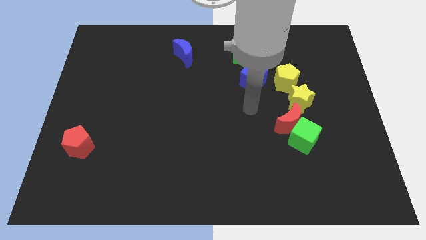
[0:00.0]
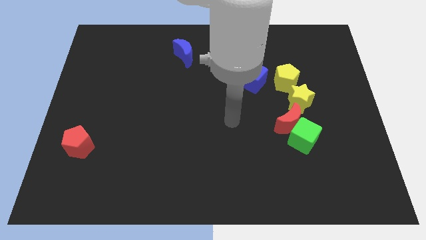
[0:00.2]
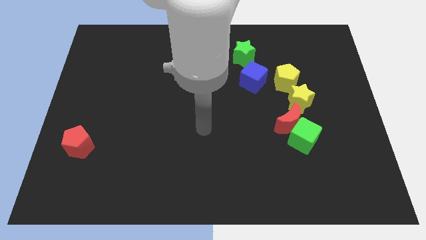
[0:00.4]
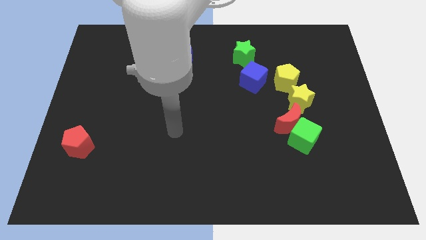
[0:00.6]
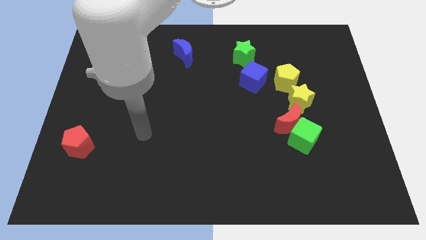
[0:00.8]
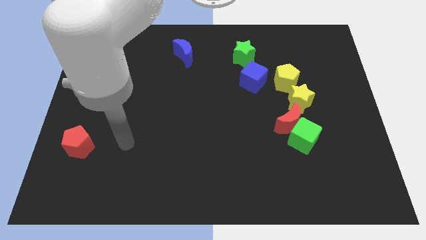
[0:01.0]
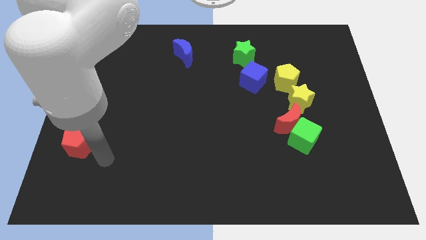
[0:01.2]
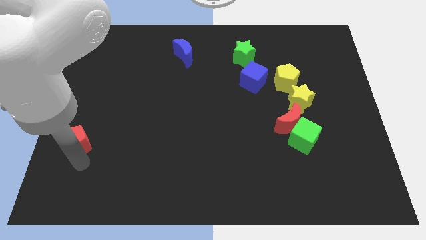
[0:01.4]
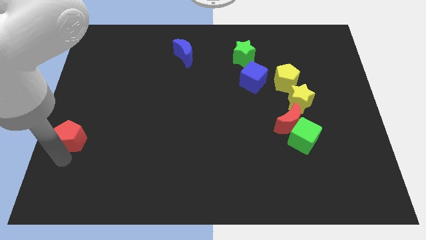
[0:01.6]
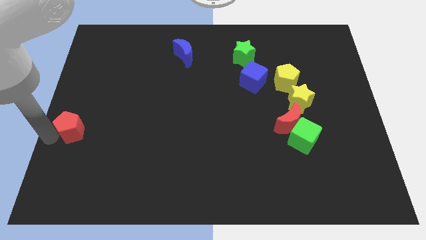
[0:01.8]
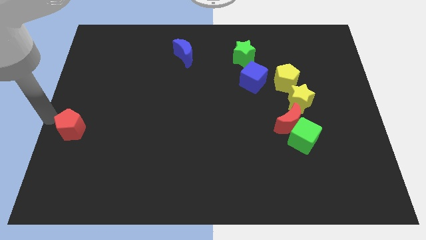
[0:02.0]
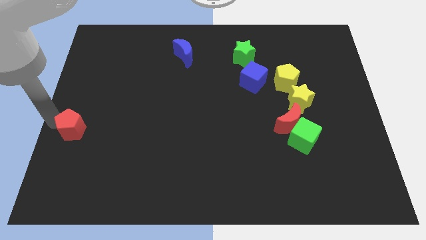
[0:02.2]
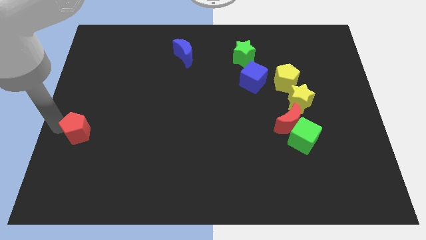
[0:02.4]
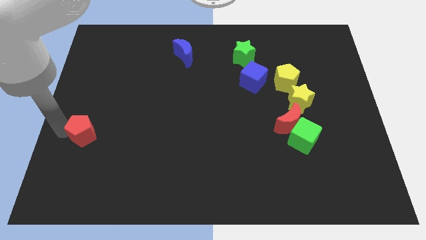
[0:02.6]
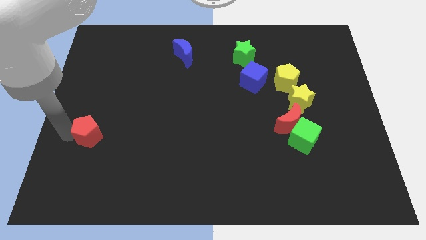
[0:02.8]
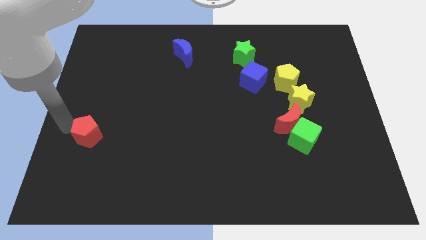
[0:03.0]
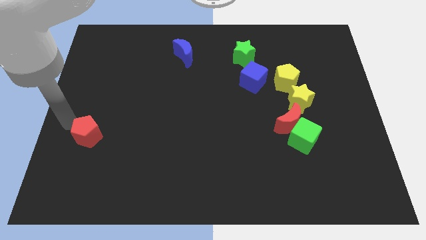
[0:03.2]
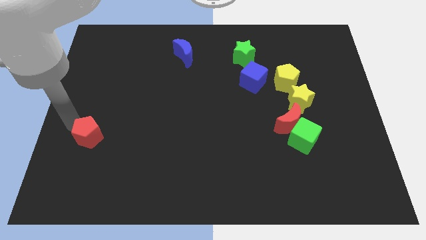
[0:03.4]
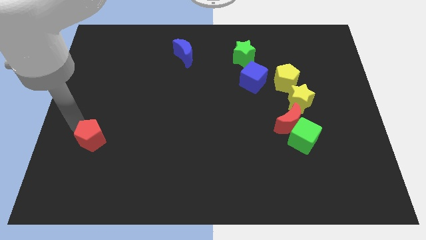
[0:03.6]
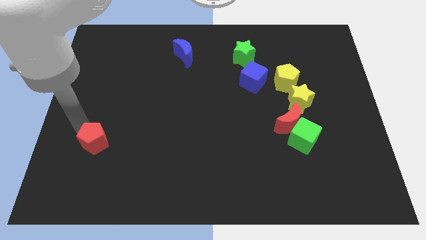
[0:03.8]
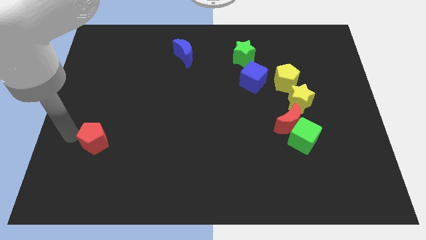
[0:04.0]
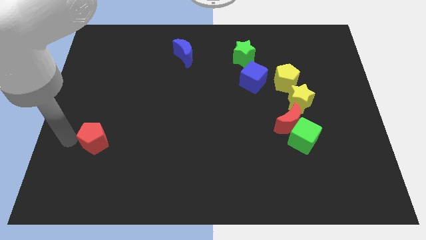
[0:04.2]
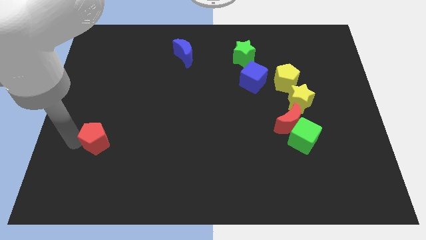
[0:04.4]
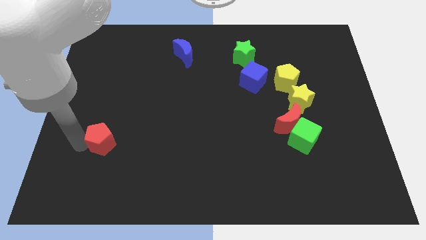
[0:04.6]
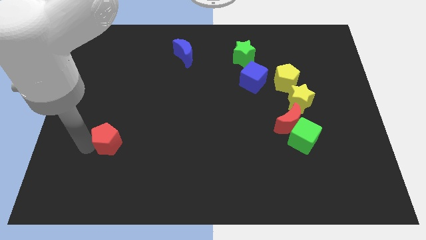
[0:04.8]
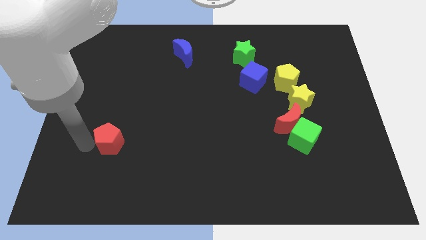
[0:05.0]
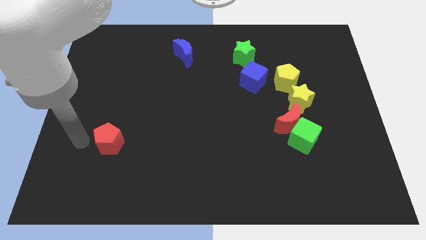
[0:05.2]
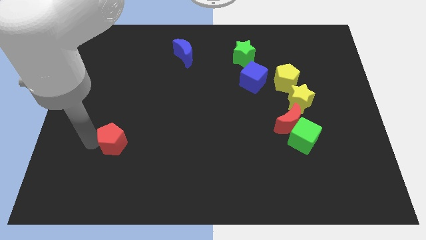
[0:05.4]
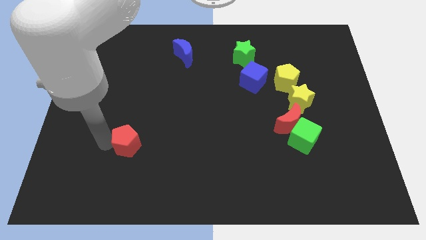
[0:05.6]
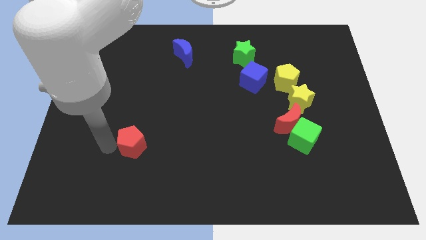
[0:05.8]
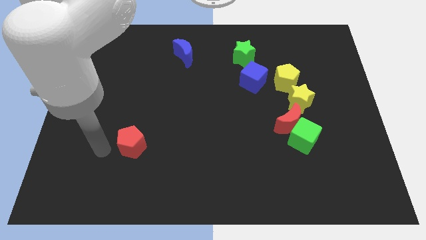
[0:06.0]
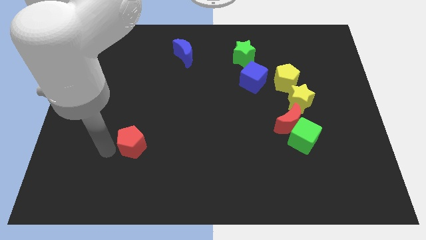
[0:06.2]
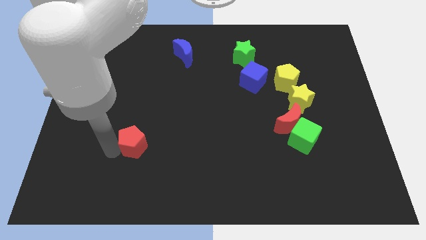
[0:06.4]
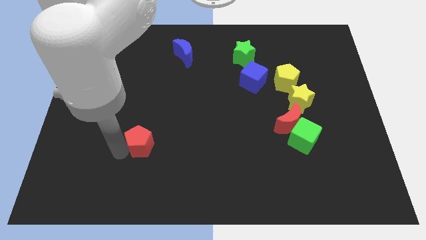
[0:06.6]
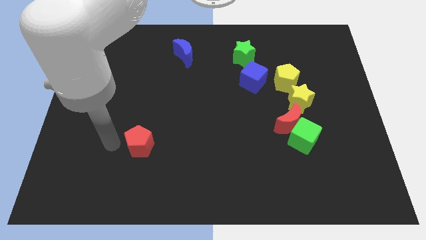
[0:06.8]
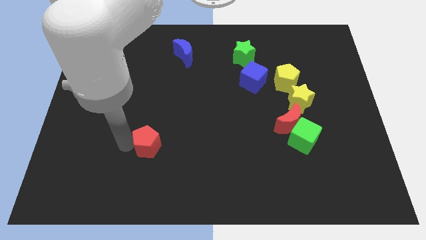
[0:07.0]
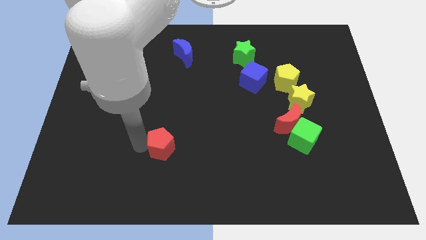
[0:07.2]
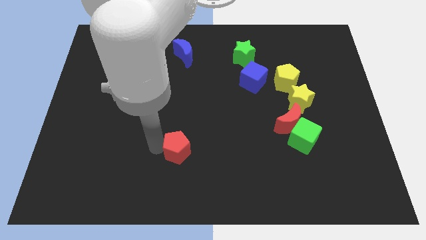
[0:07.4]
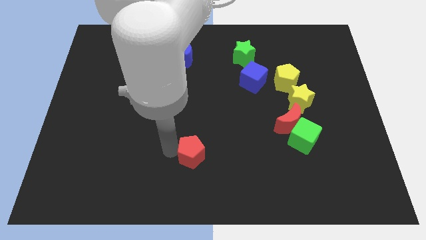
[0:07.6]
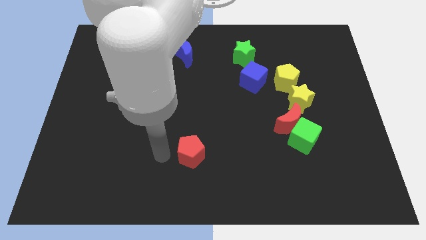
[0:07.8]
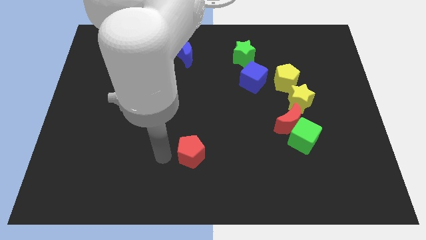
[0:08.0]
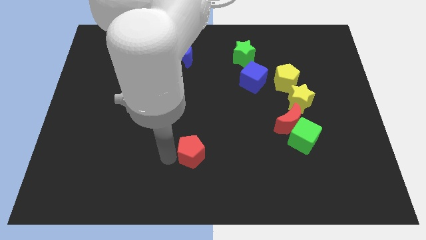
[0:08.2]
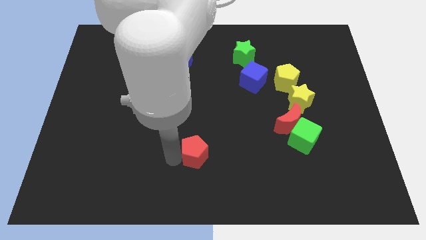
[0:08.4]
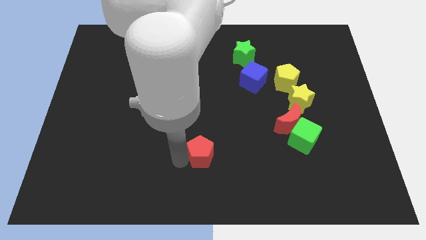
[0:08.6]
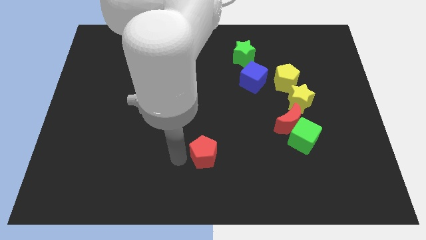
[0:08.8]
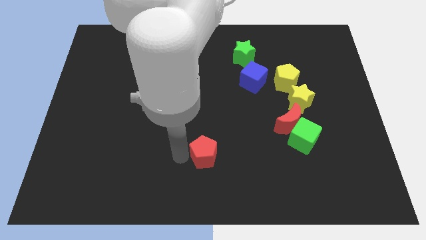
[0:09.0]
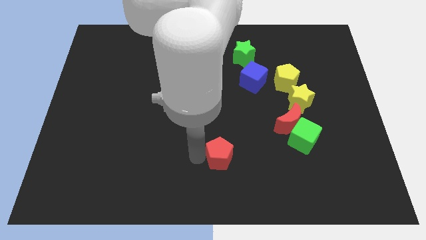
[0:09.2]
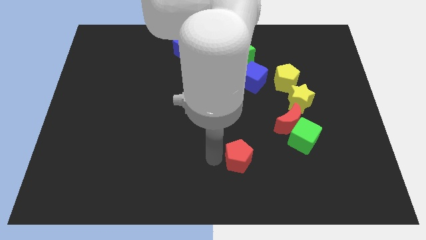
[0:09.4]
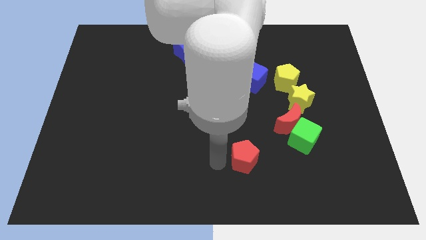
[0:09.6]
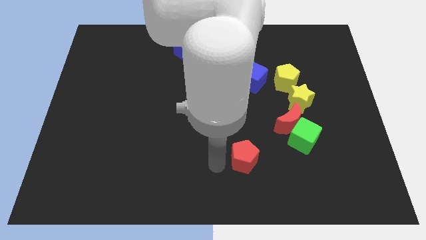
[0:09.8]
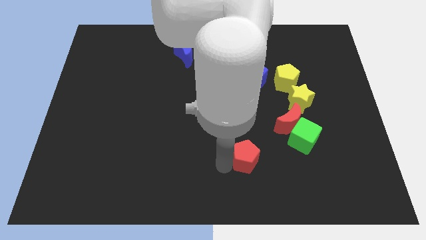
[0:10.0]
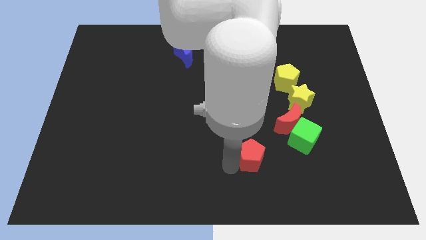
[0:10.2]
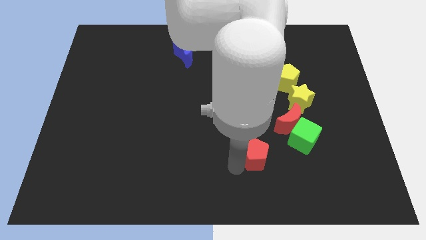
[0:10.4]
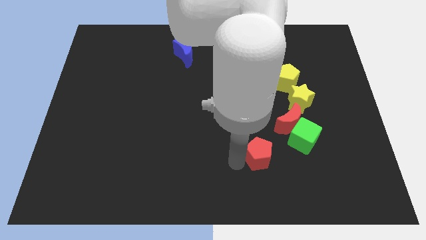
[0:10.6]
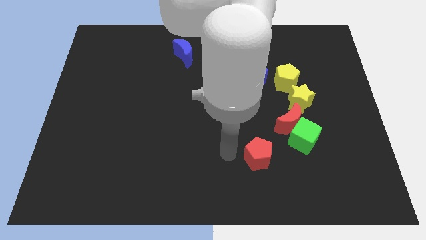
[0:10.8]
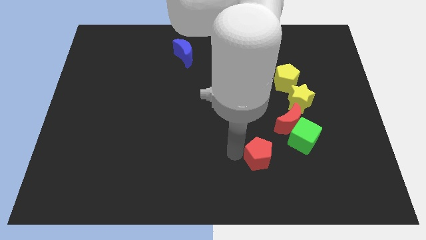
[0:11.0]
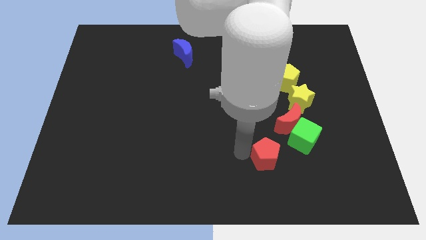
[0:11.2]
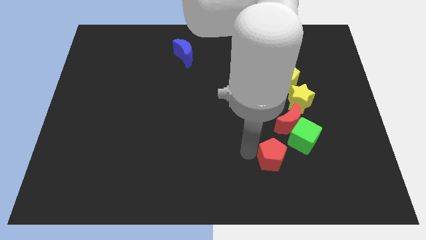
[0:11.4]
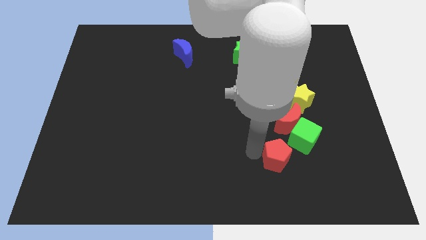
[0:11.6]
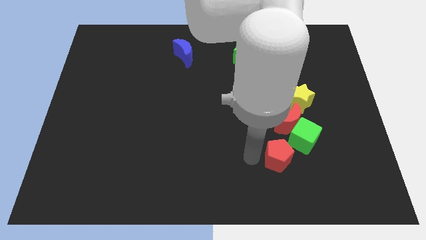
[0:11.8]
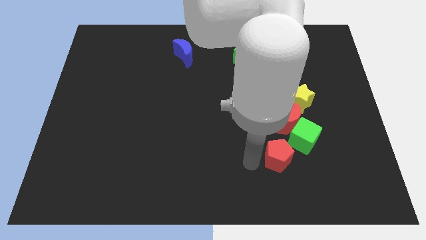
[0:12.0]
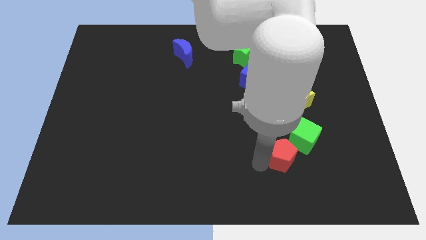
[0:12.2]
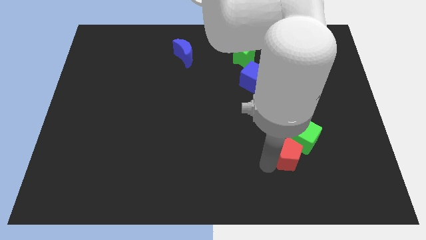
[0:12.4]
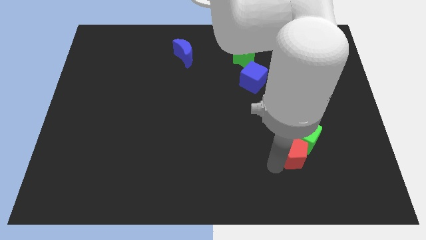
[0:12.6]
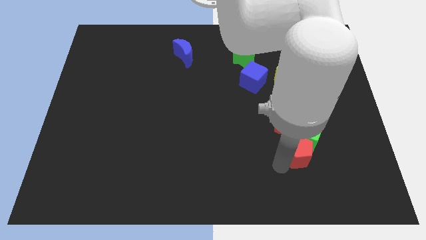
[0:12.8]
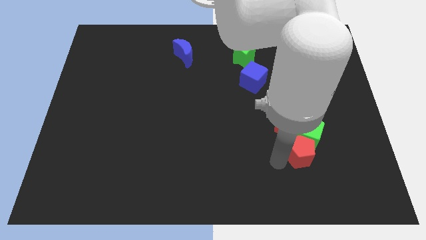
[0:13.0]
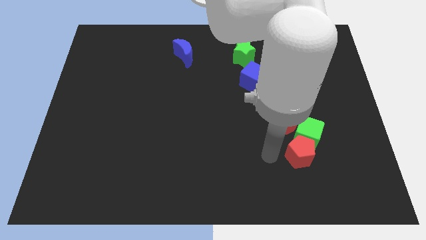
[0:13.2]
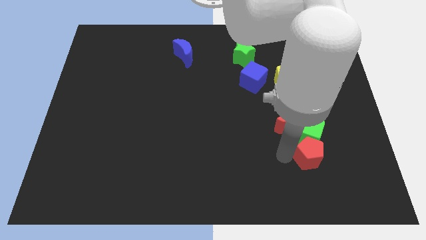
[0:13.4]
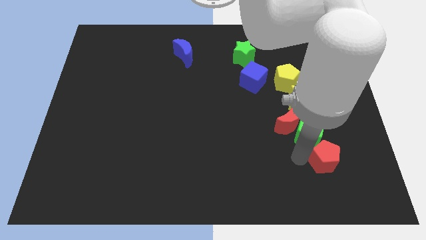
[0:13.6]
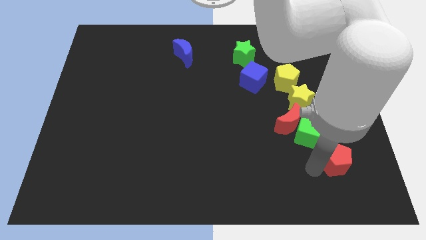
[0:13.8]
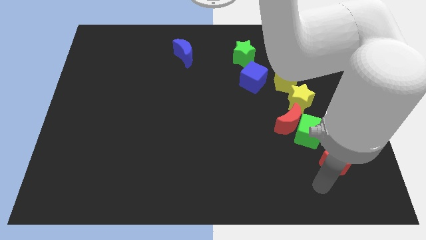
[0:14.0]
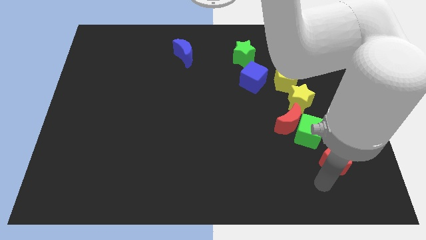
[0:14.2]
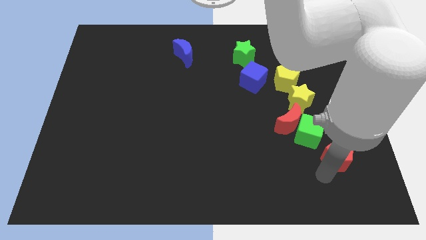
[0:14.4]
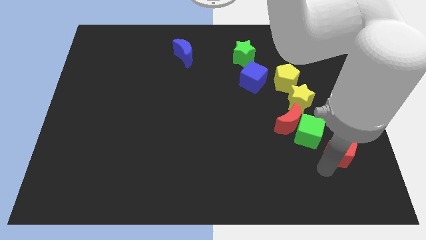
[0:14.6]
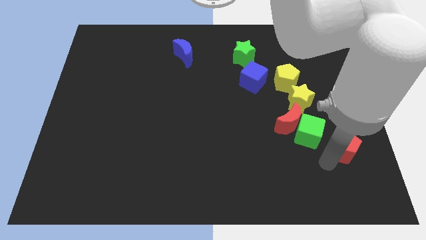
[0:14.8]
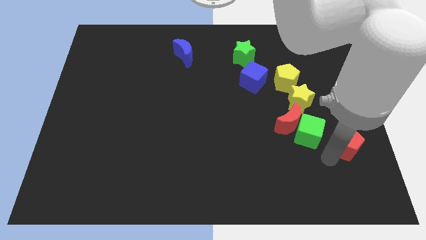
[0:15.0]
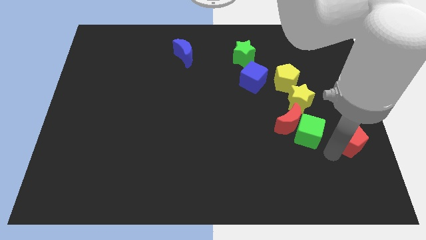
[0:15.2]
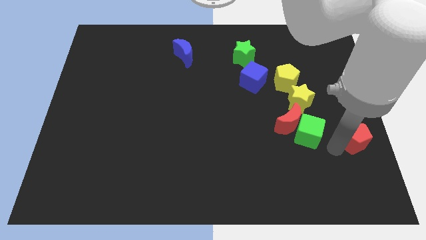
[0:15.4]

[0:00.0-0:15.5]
push the red pentagon to the center right
